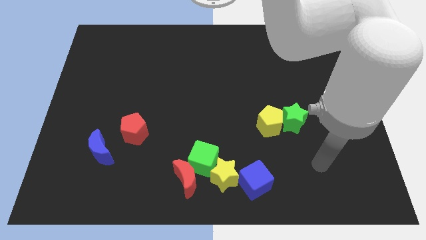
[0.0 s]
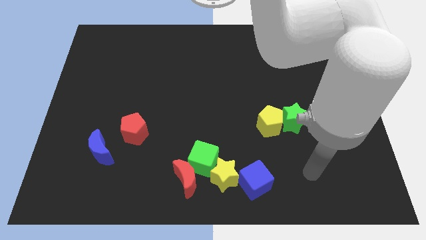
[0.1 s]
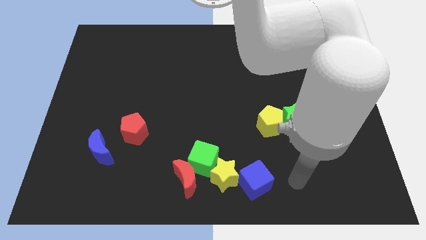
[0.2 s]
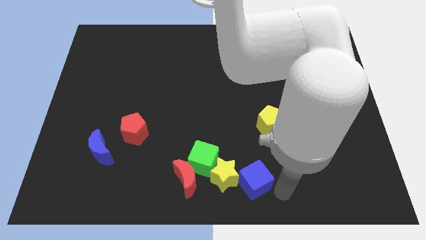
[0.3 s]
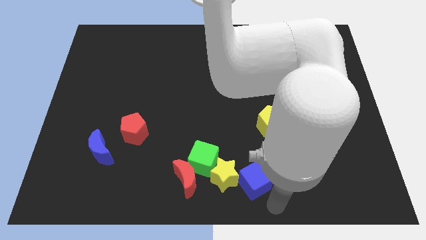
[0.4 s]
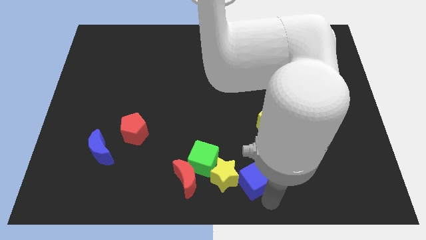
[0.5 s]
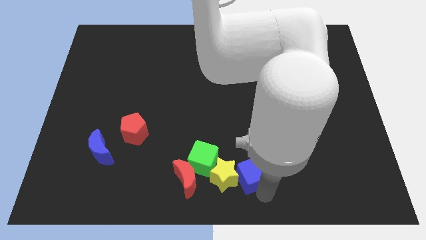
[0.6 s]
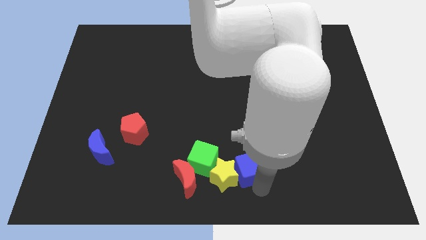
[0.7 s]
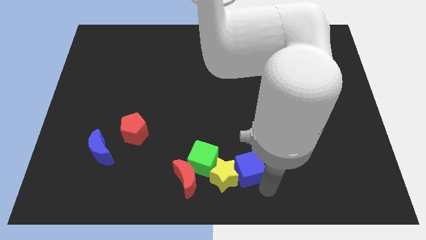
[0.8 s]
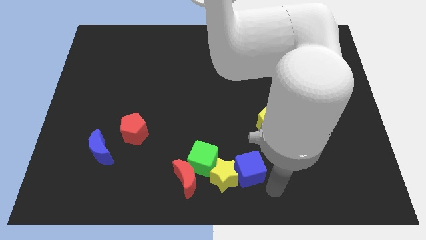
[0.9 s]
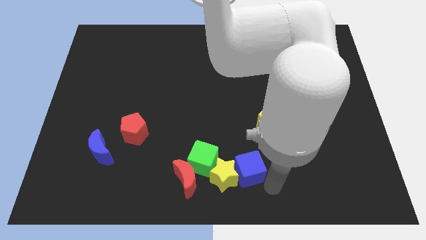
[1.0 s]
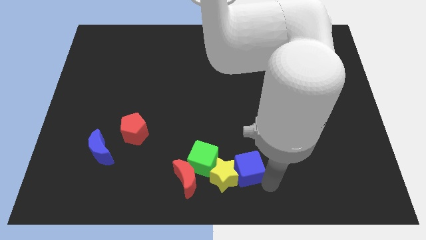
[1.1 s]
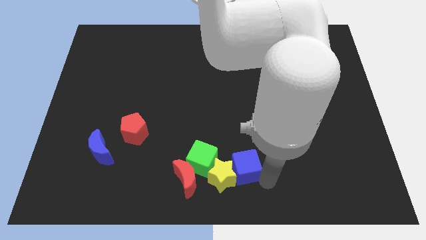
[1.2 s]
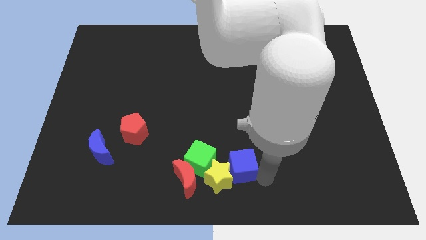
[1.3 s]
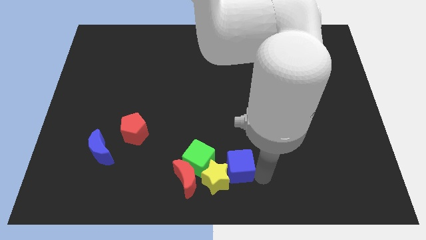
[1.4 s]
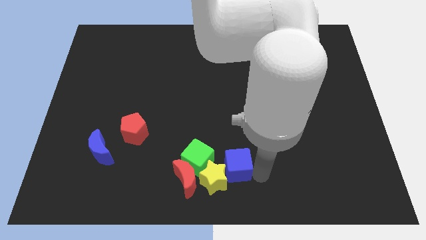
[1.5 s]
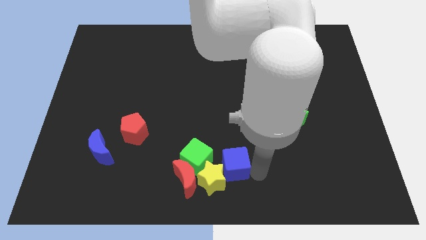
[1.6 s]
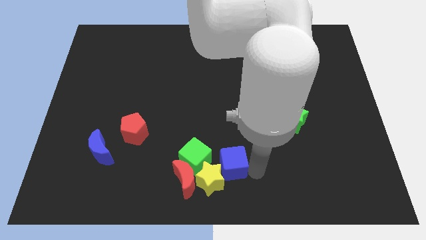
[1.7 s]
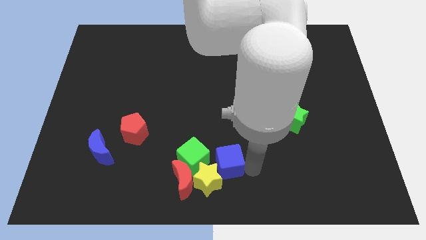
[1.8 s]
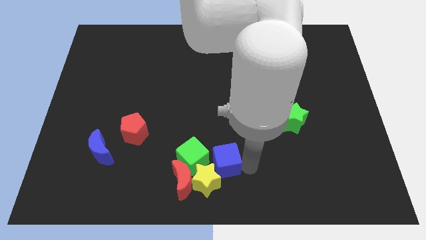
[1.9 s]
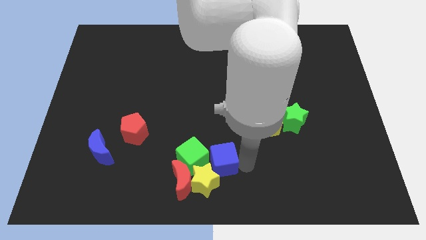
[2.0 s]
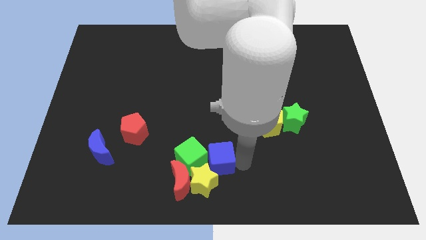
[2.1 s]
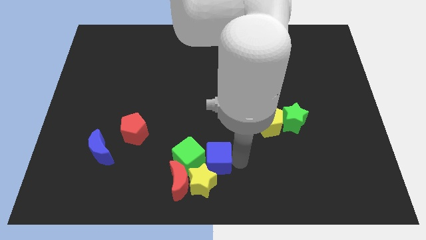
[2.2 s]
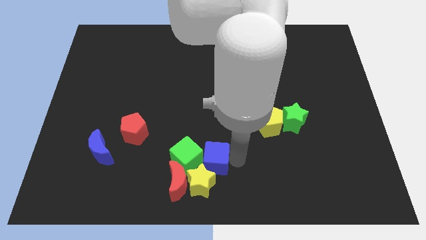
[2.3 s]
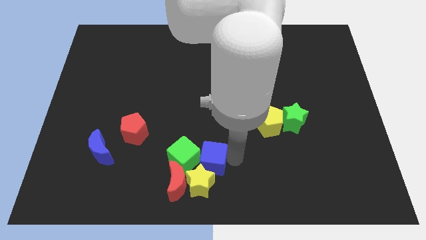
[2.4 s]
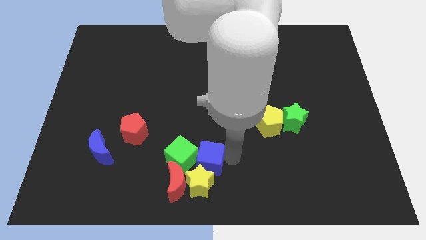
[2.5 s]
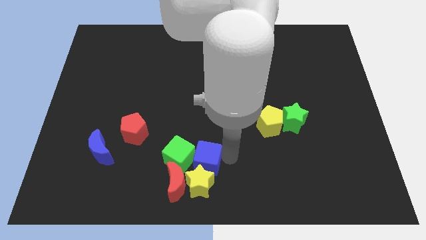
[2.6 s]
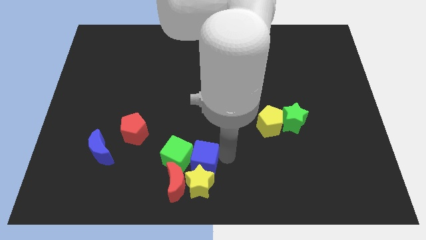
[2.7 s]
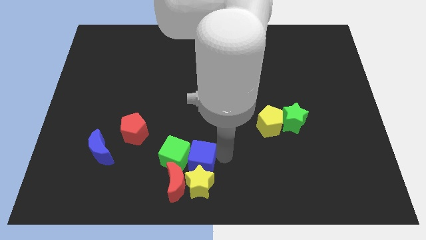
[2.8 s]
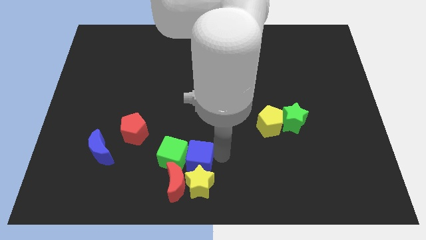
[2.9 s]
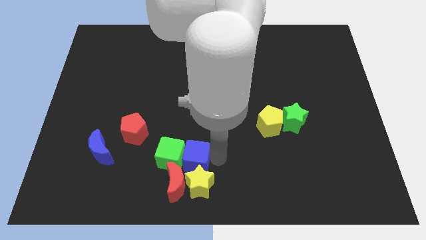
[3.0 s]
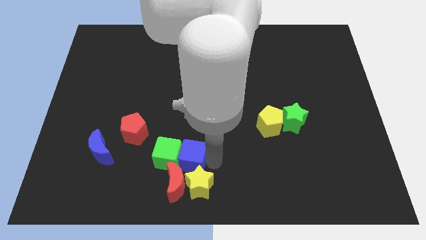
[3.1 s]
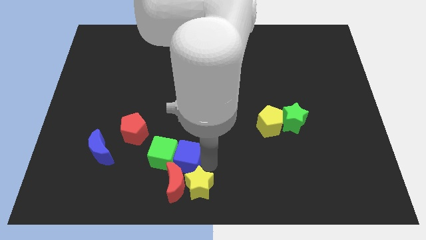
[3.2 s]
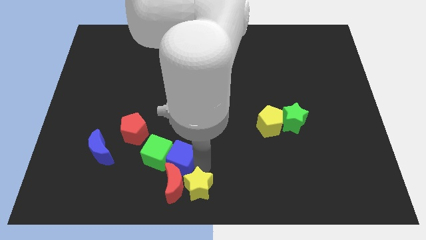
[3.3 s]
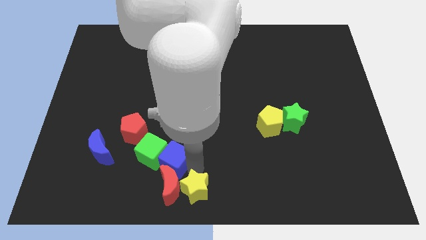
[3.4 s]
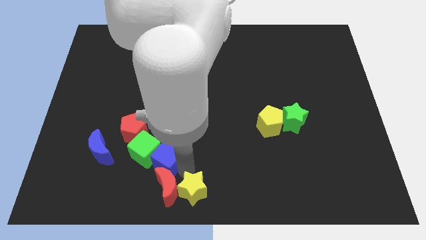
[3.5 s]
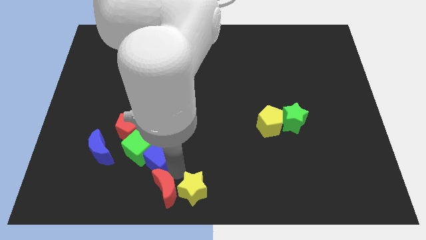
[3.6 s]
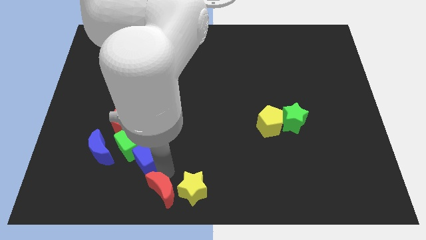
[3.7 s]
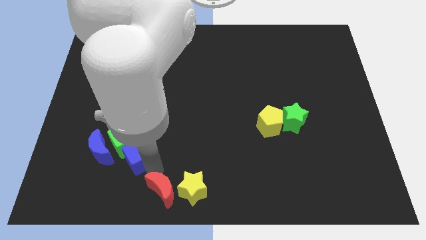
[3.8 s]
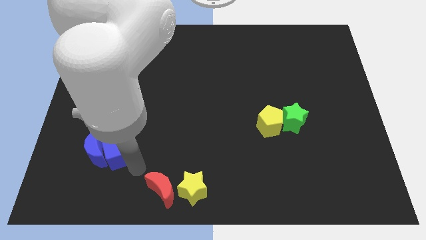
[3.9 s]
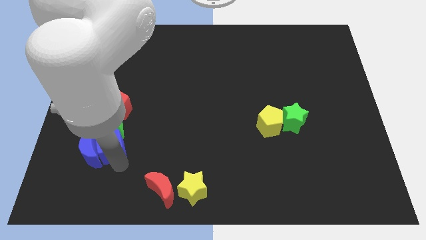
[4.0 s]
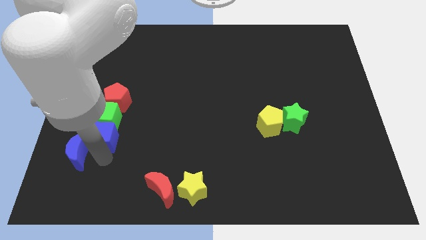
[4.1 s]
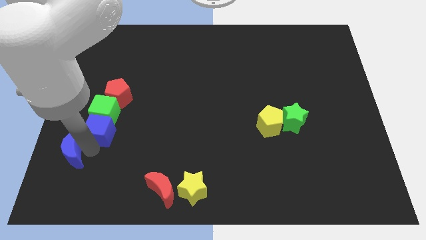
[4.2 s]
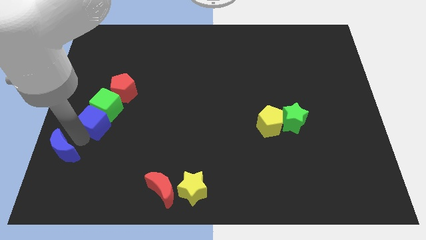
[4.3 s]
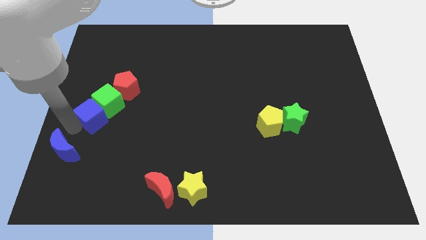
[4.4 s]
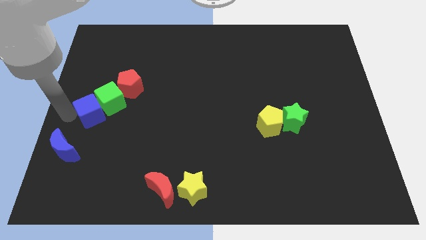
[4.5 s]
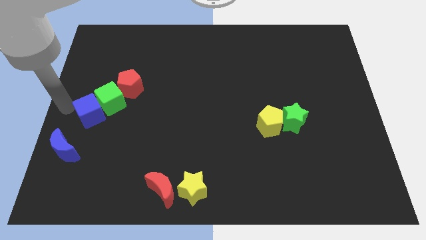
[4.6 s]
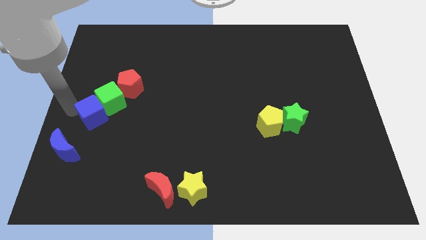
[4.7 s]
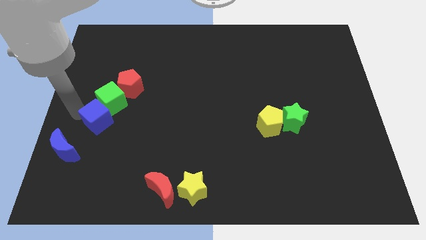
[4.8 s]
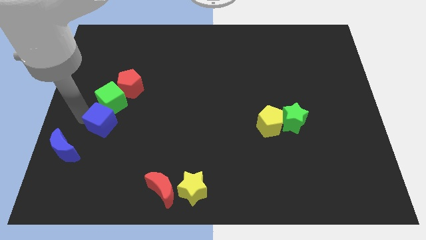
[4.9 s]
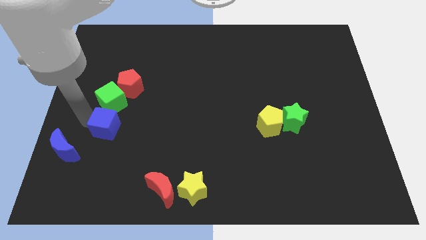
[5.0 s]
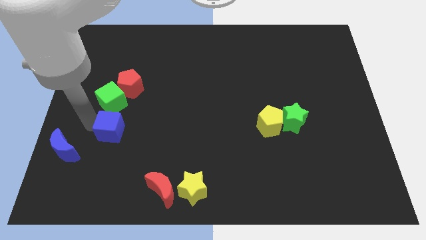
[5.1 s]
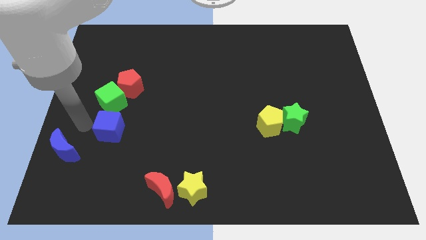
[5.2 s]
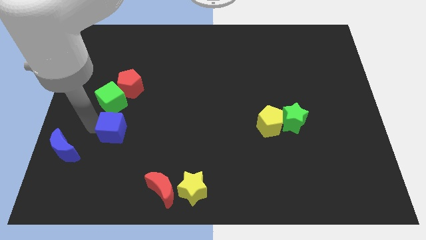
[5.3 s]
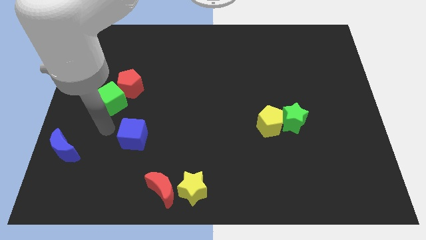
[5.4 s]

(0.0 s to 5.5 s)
push the blue cube up and to the left diagonally

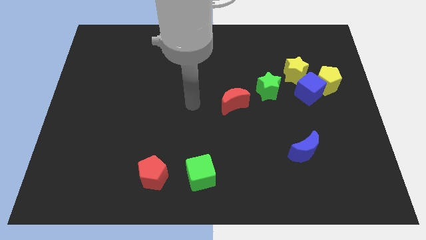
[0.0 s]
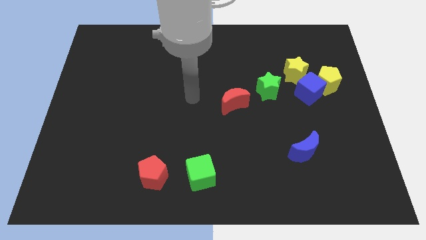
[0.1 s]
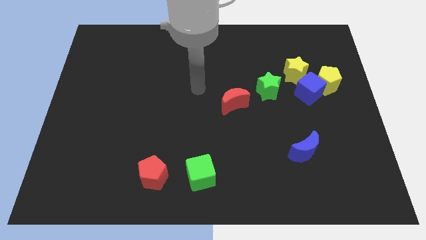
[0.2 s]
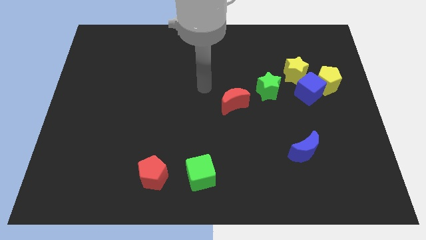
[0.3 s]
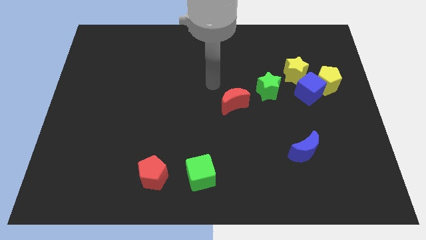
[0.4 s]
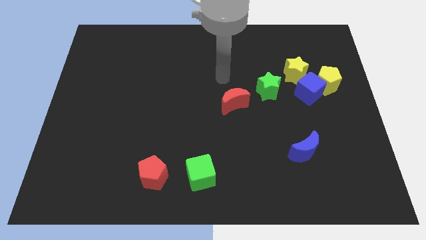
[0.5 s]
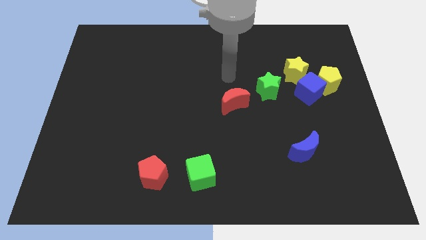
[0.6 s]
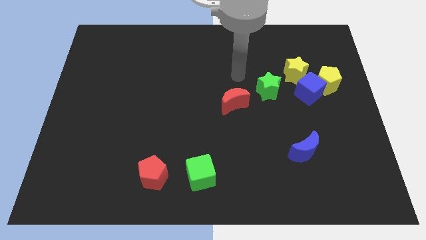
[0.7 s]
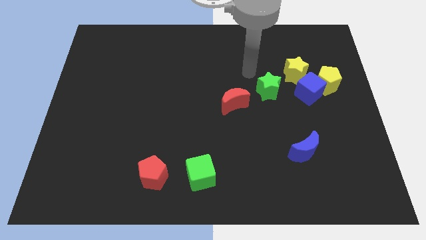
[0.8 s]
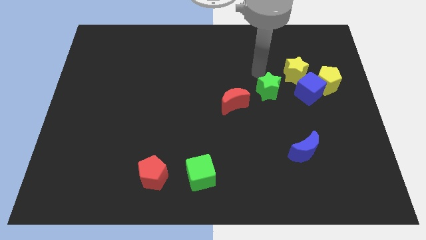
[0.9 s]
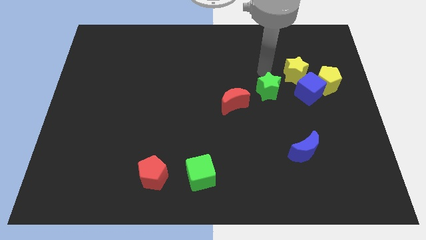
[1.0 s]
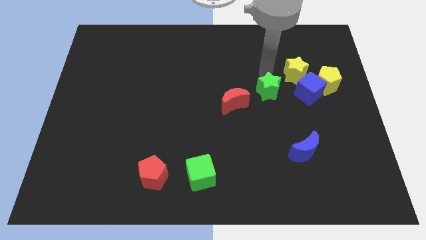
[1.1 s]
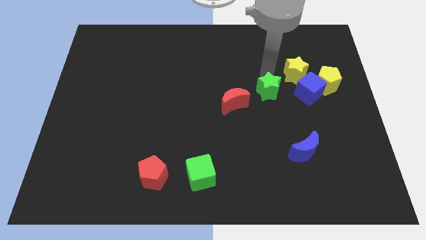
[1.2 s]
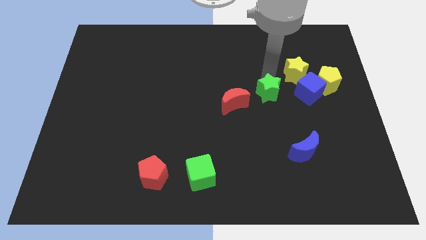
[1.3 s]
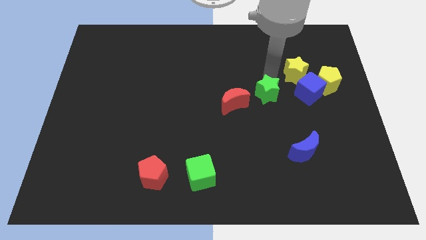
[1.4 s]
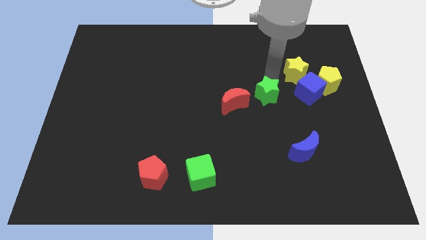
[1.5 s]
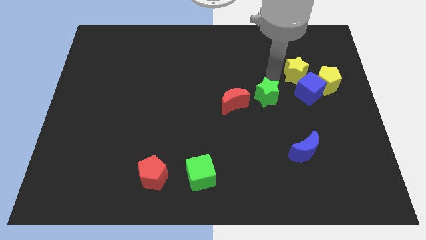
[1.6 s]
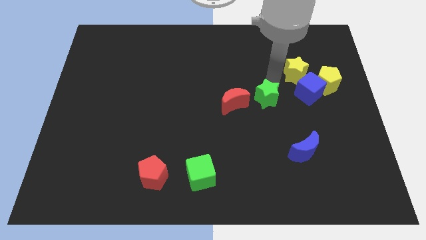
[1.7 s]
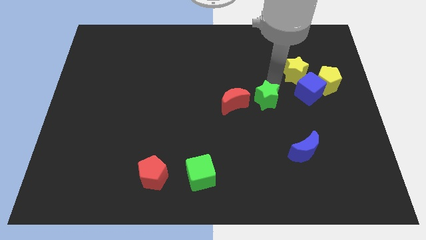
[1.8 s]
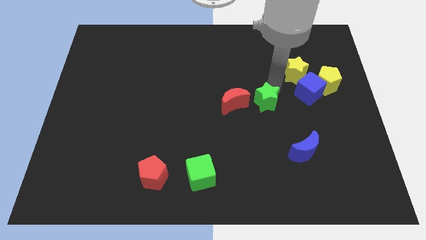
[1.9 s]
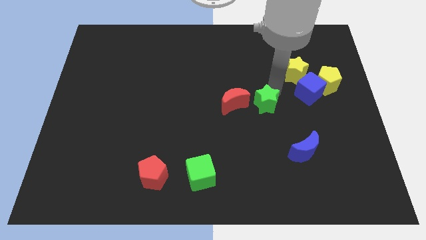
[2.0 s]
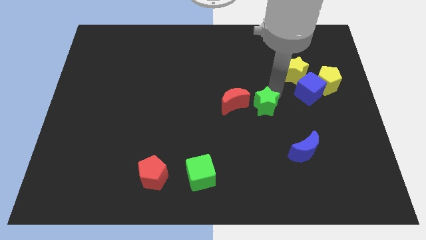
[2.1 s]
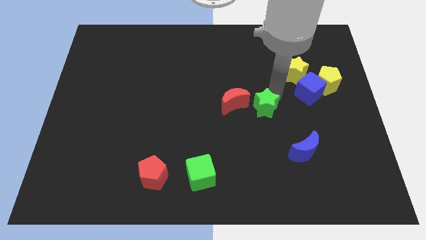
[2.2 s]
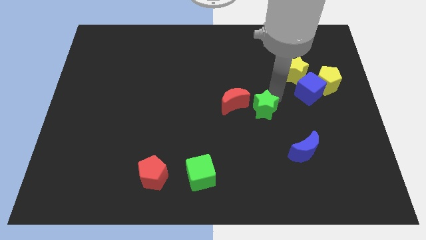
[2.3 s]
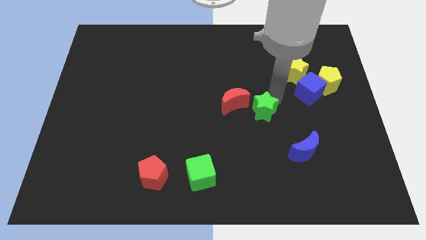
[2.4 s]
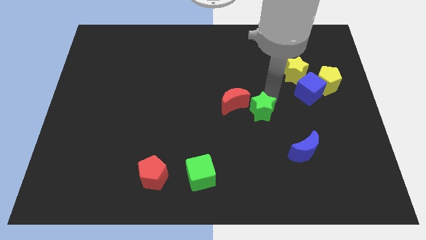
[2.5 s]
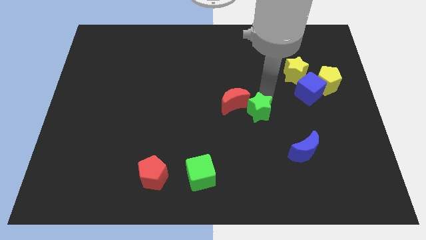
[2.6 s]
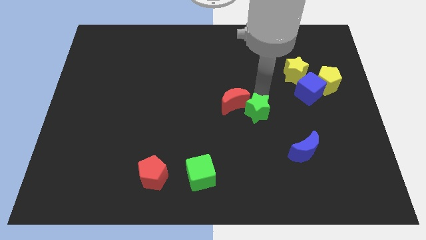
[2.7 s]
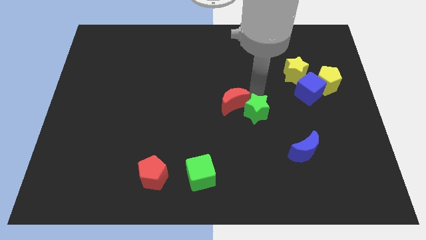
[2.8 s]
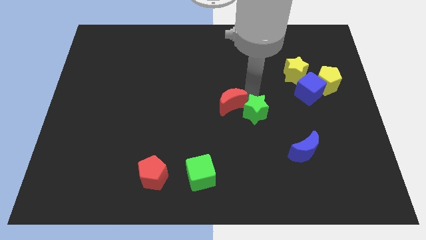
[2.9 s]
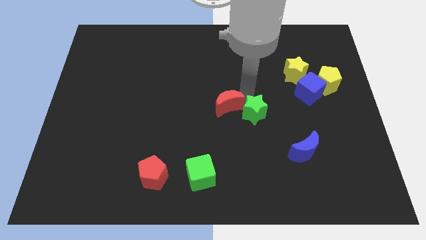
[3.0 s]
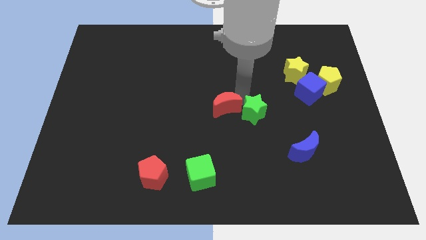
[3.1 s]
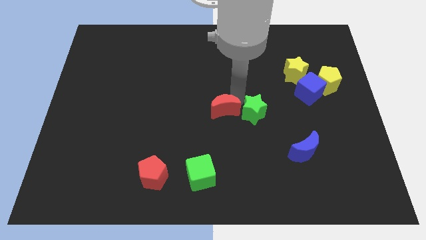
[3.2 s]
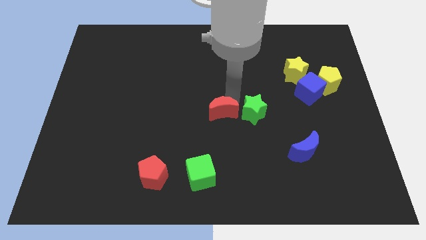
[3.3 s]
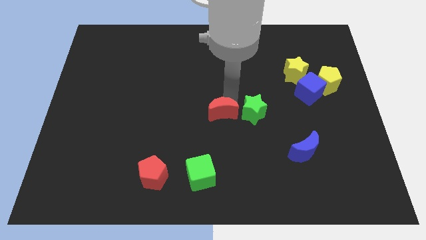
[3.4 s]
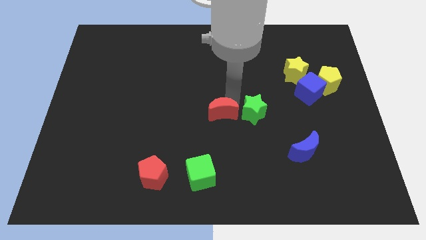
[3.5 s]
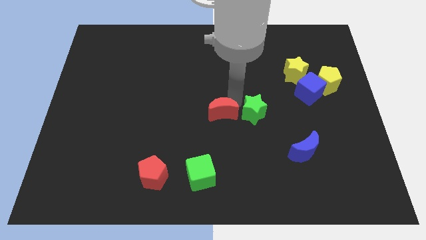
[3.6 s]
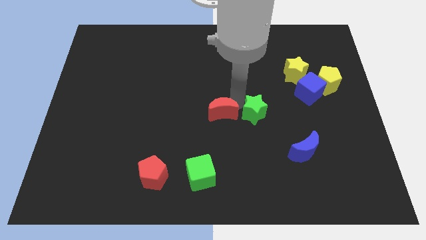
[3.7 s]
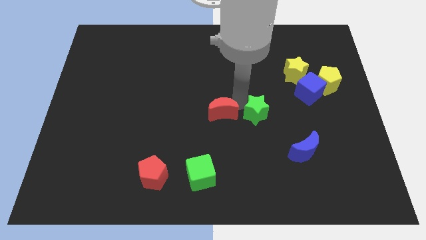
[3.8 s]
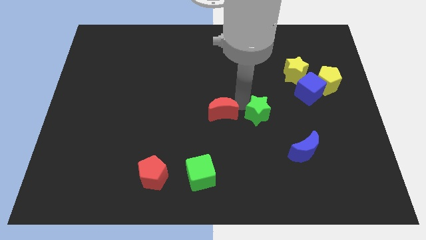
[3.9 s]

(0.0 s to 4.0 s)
move the green star somewhat down
